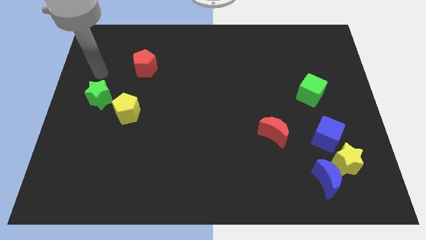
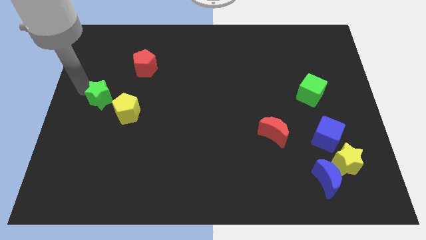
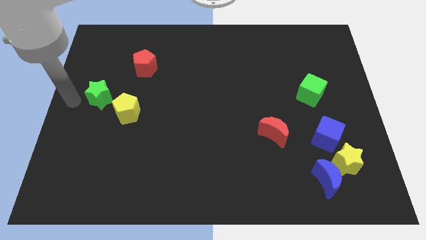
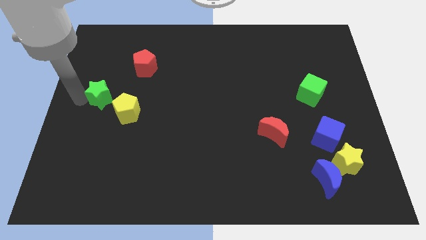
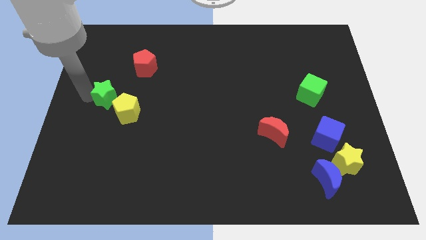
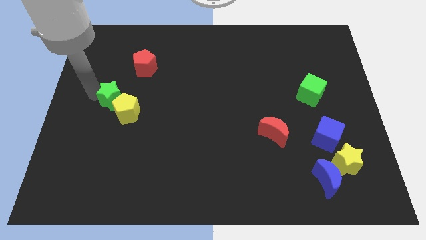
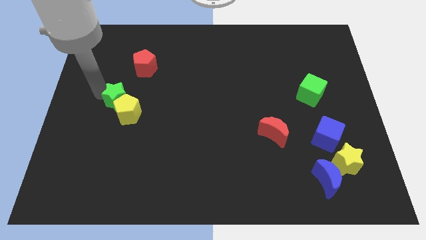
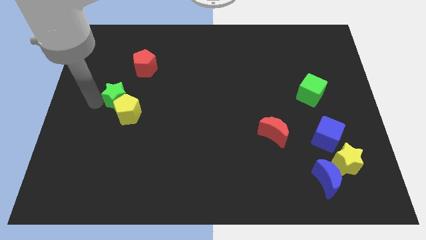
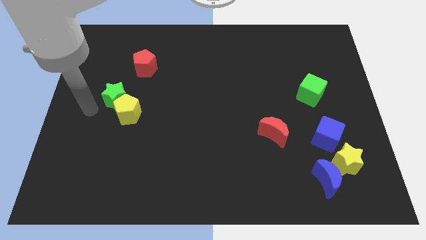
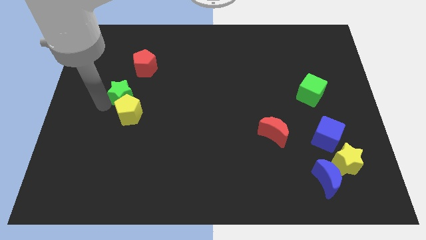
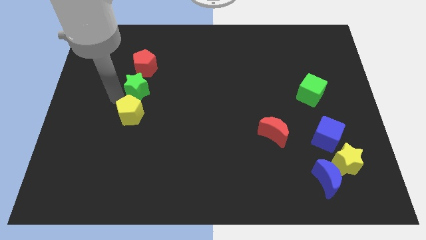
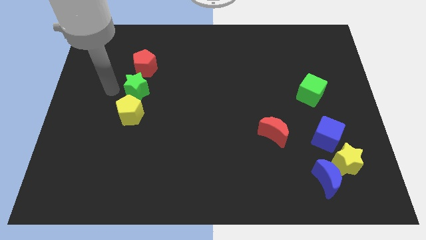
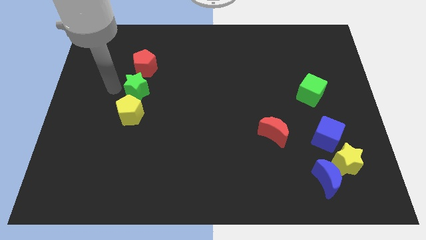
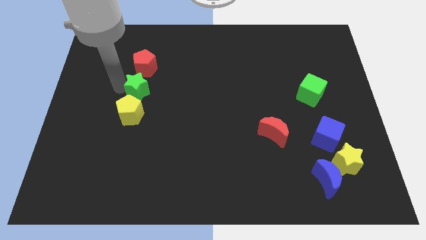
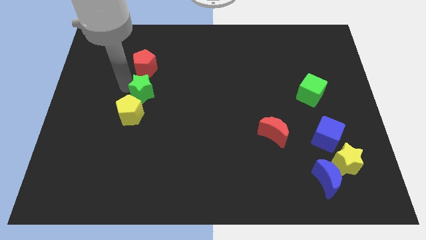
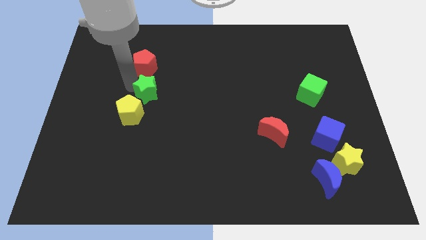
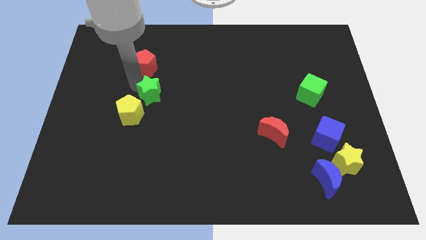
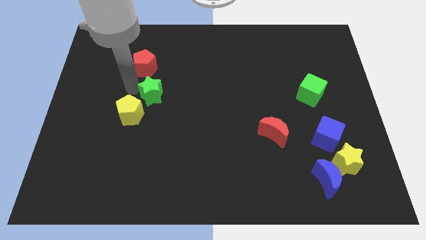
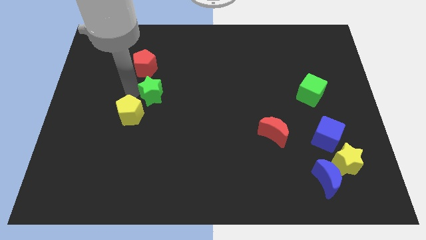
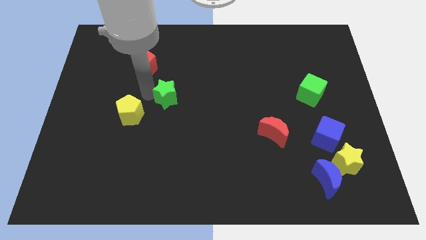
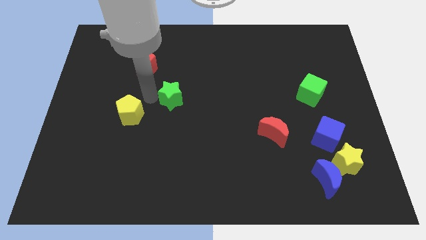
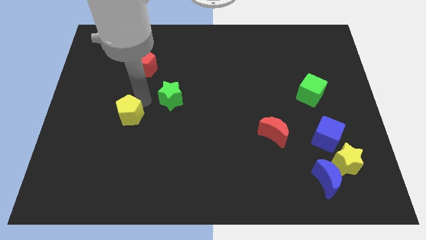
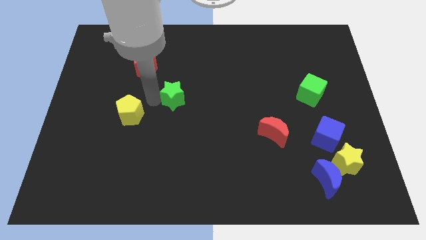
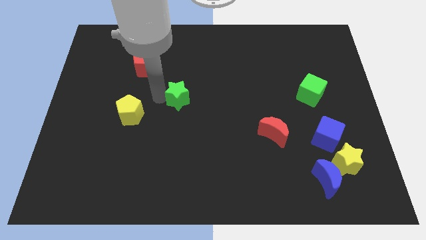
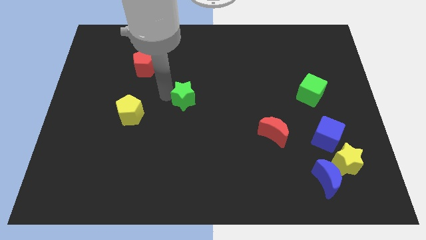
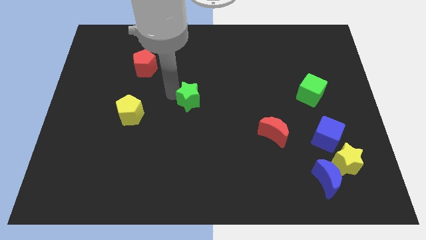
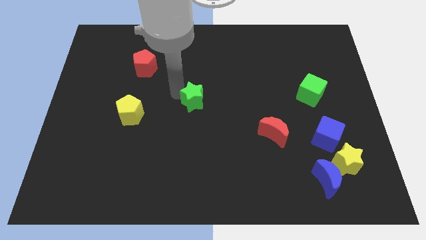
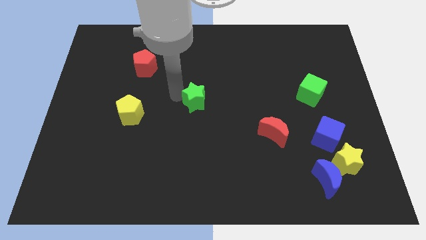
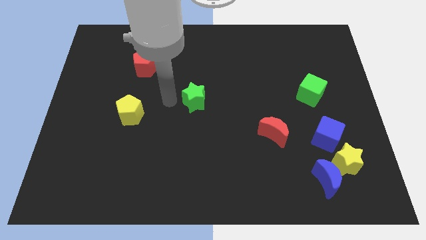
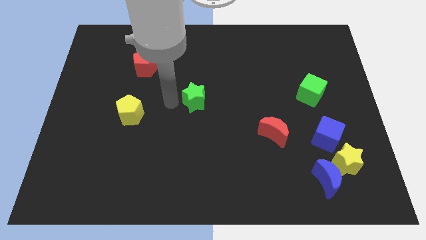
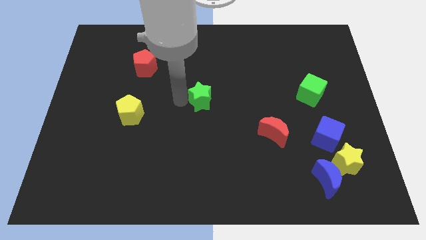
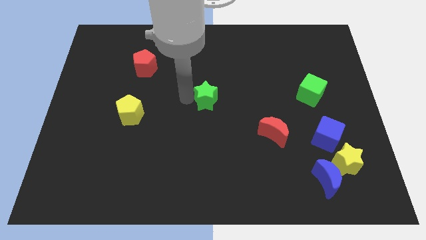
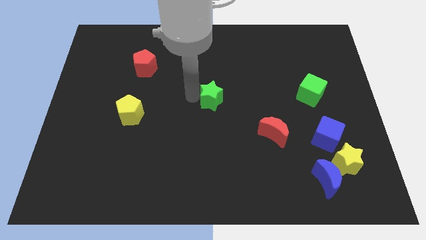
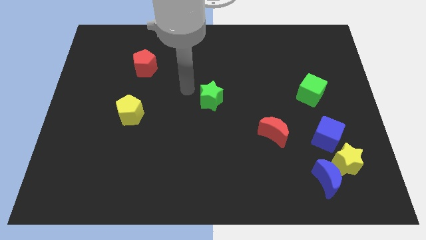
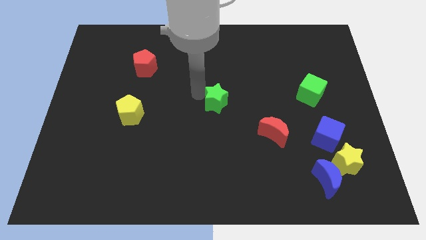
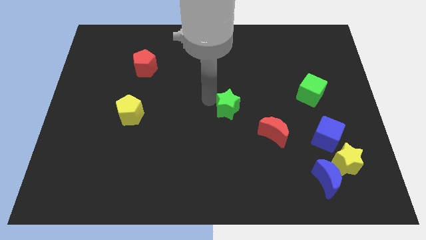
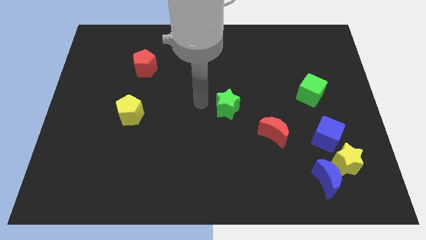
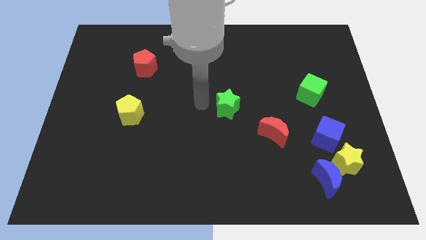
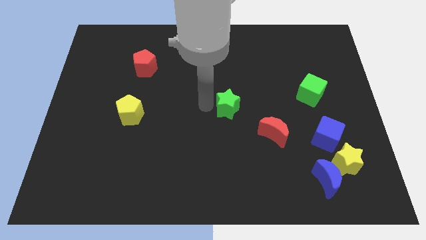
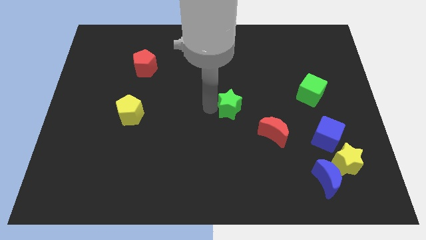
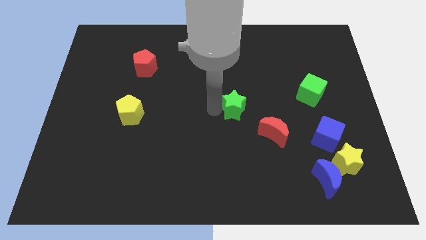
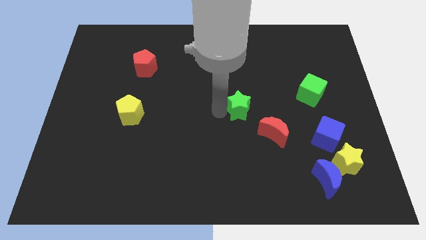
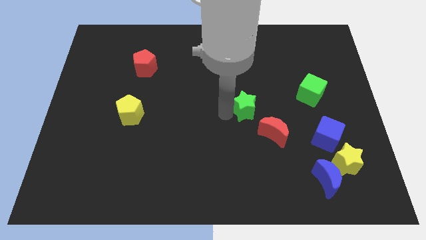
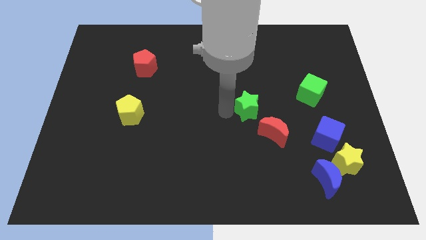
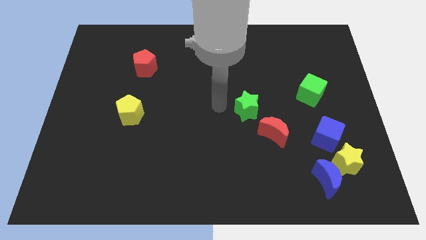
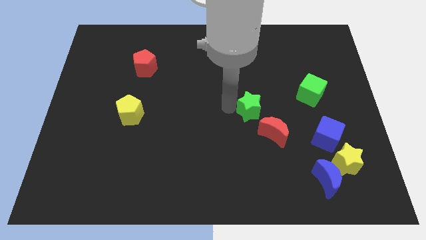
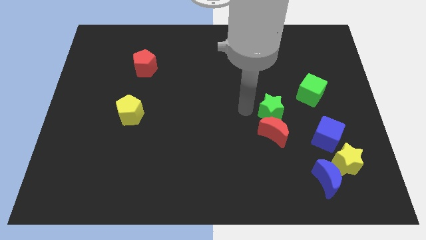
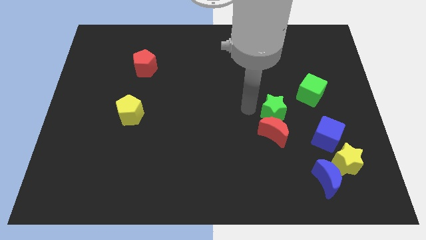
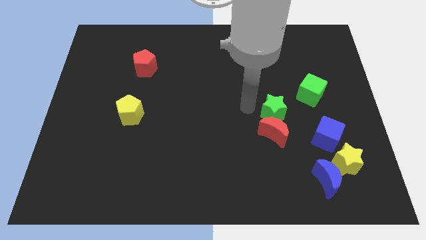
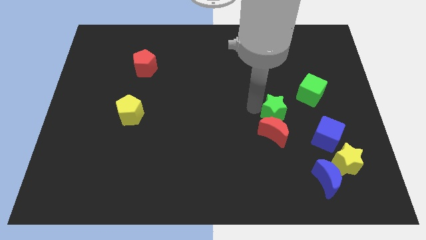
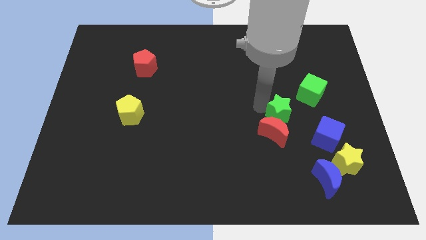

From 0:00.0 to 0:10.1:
put the green star to the top left side of the blue cube

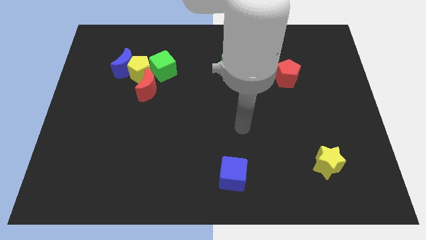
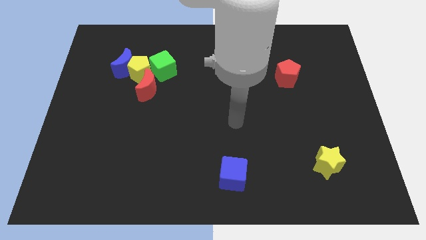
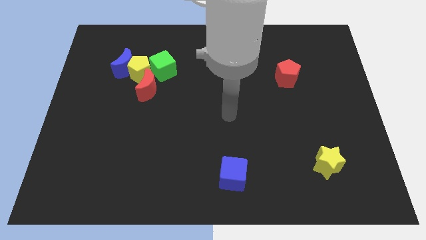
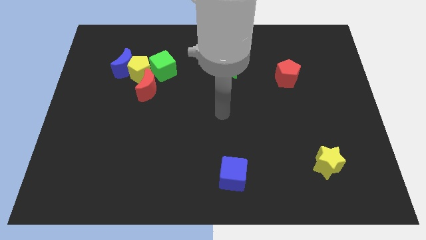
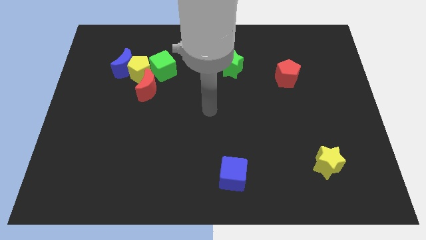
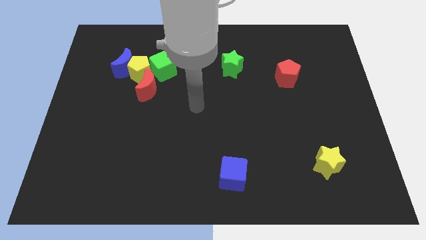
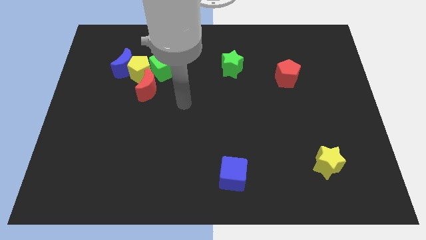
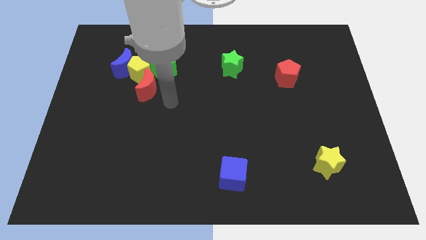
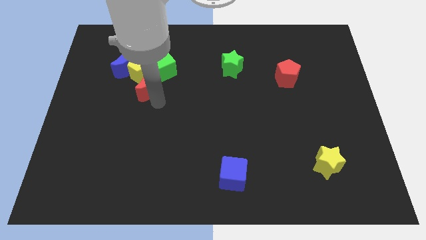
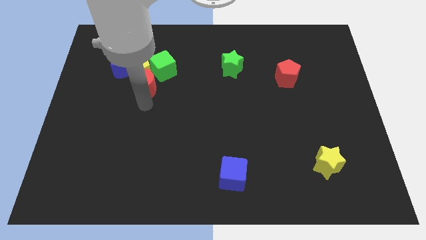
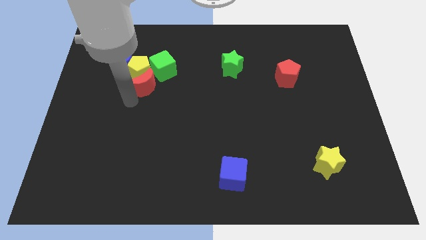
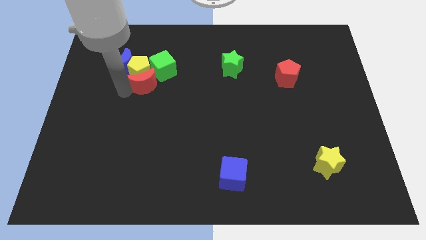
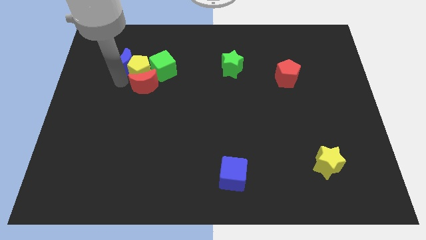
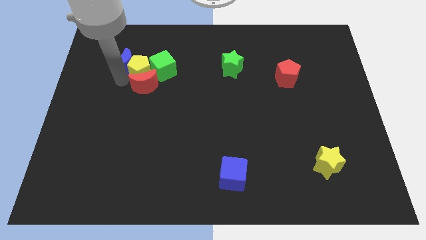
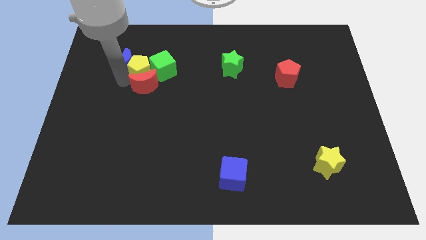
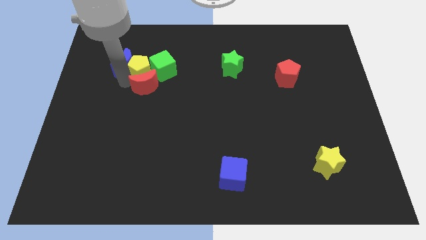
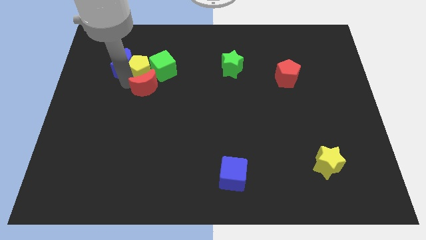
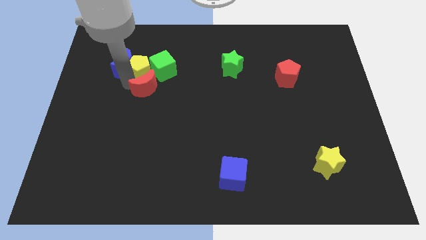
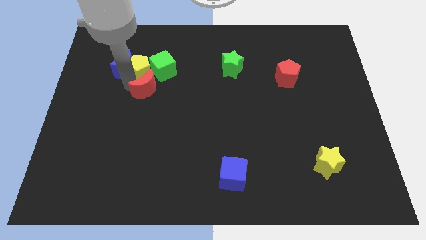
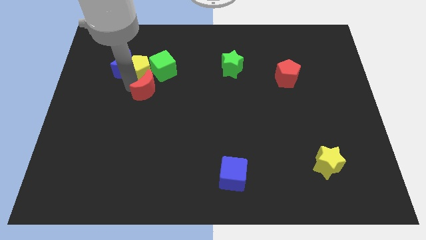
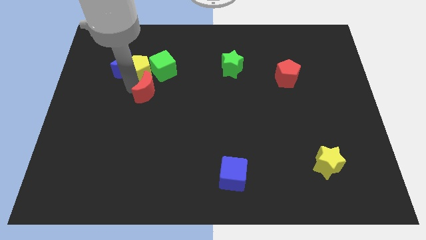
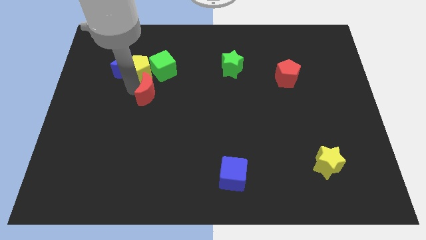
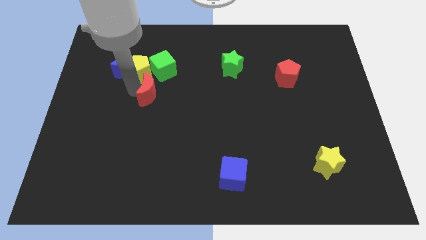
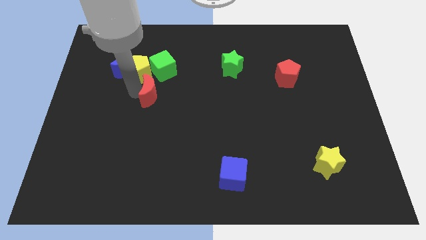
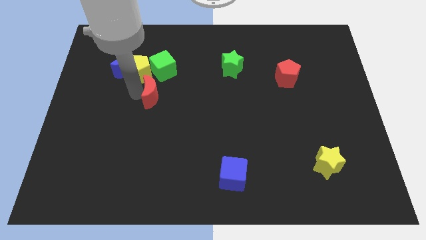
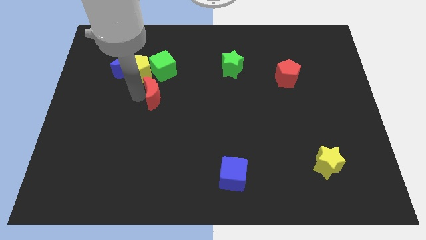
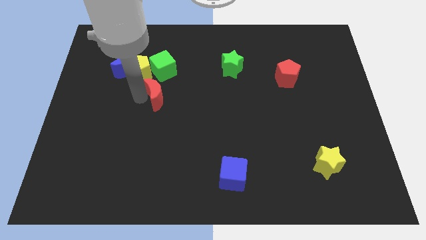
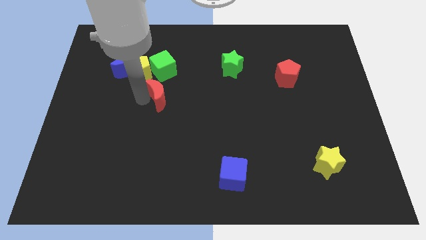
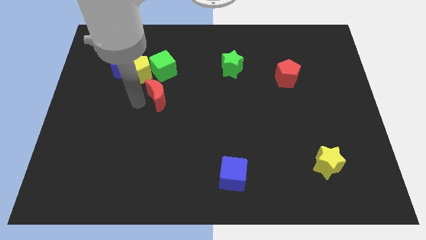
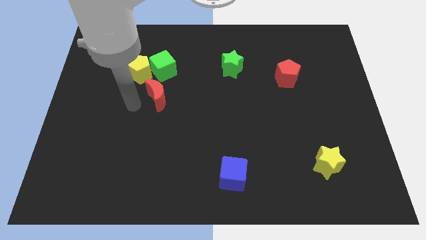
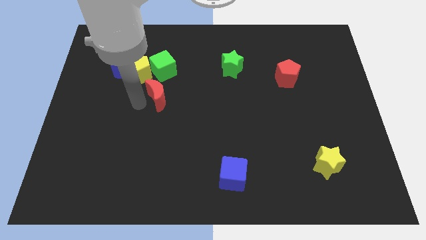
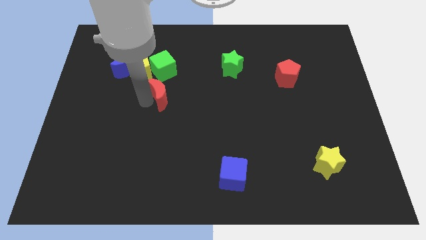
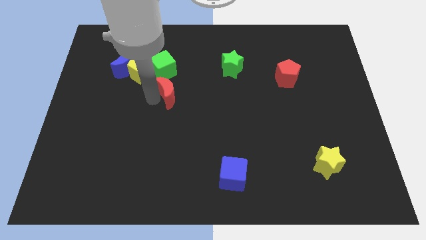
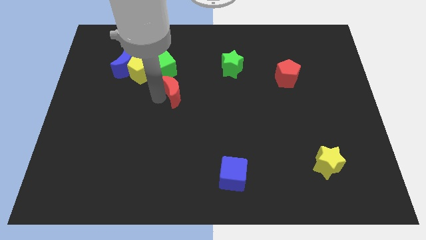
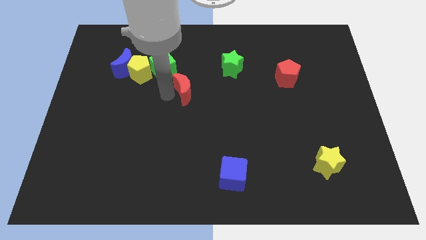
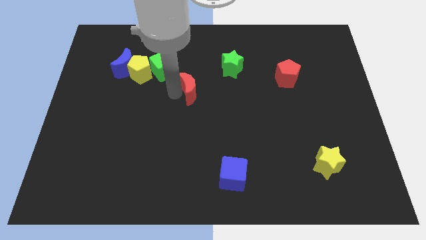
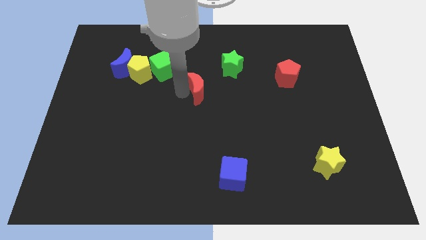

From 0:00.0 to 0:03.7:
move the red moon diagonally down and to the left of the green star
